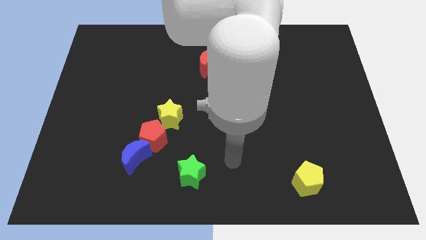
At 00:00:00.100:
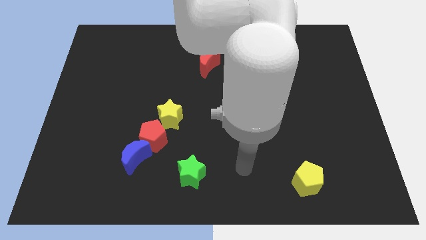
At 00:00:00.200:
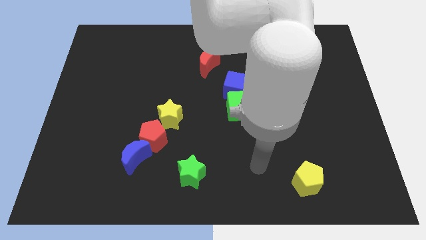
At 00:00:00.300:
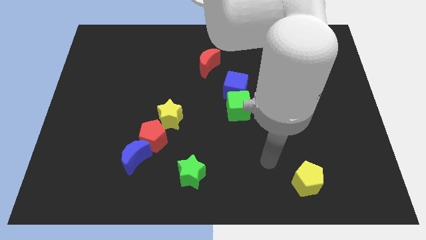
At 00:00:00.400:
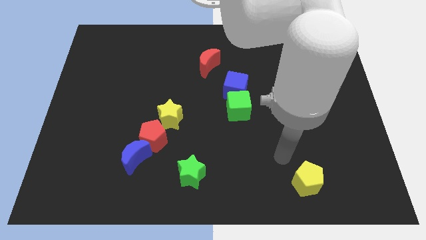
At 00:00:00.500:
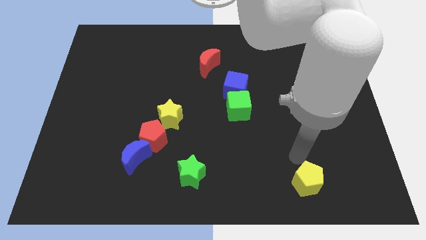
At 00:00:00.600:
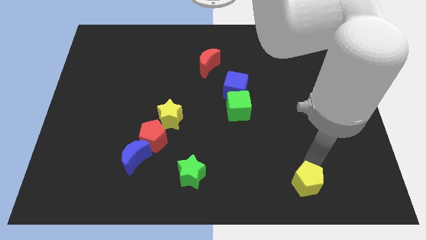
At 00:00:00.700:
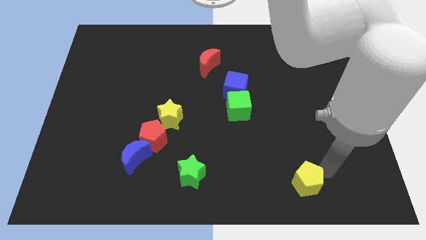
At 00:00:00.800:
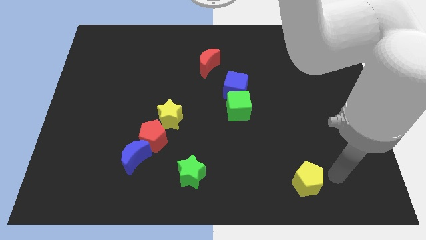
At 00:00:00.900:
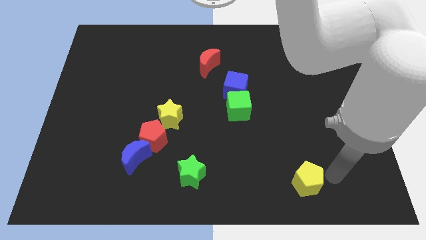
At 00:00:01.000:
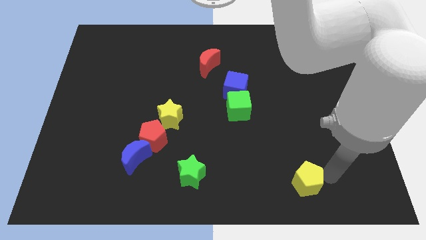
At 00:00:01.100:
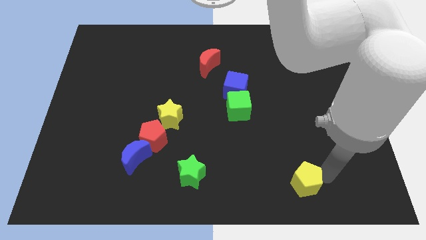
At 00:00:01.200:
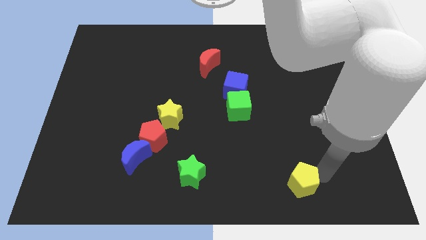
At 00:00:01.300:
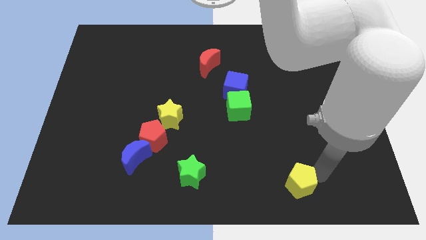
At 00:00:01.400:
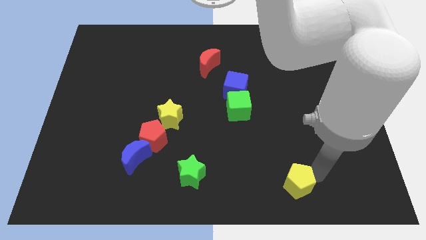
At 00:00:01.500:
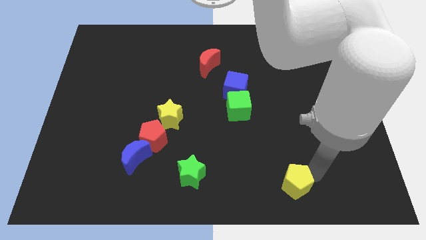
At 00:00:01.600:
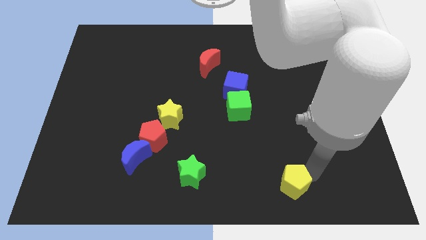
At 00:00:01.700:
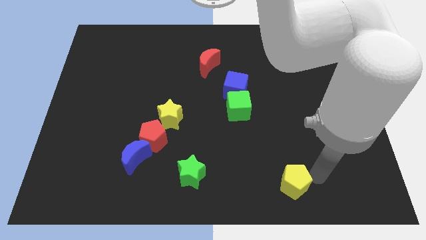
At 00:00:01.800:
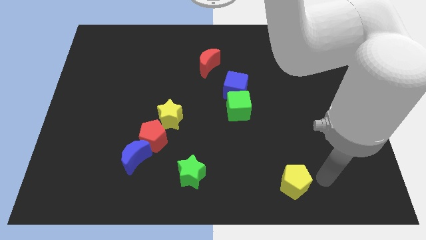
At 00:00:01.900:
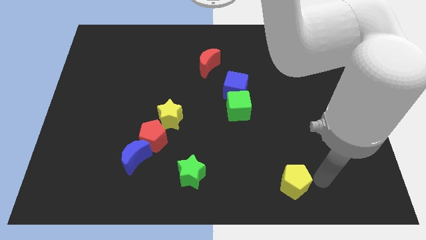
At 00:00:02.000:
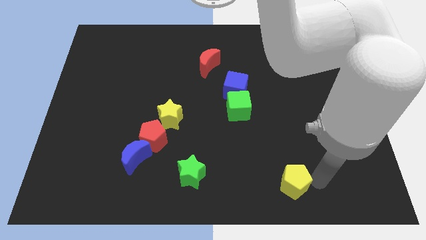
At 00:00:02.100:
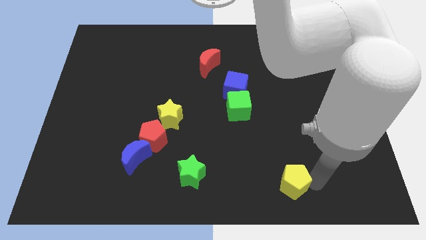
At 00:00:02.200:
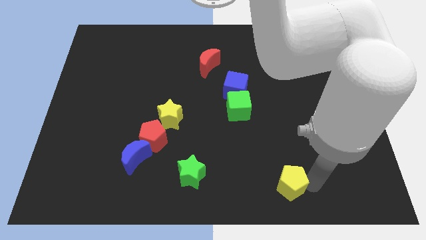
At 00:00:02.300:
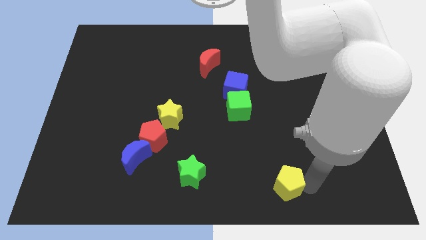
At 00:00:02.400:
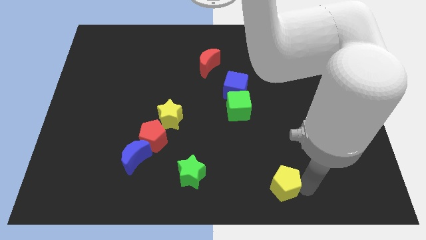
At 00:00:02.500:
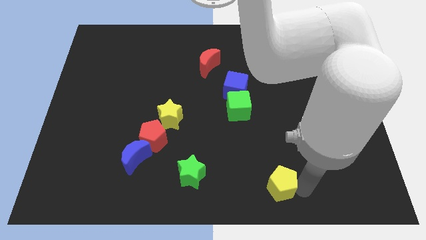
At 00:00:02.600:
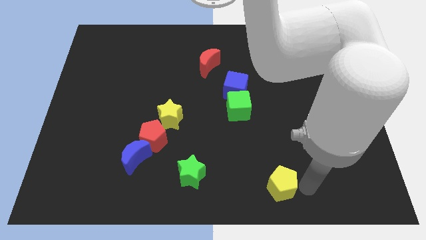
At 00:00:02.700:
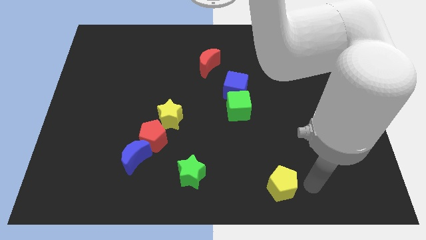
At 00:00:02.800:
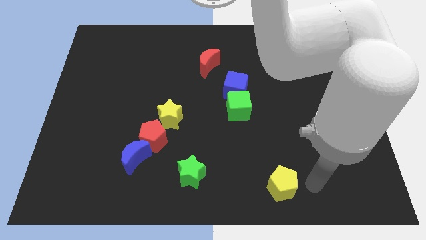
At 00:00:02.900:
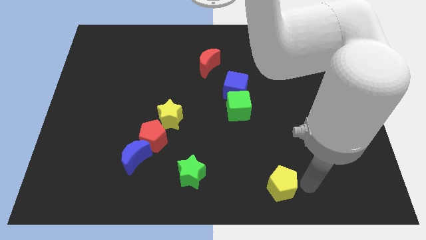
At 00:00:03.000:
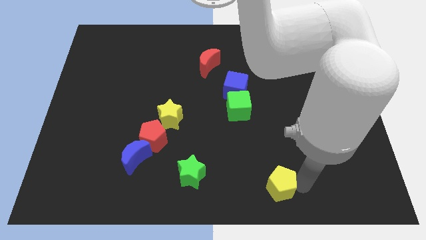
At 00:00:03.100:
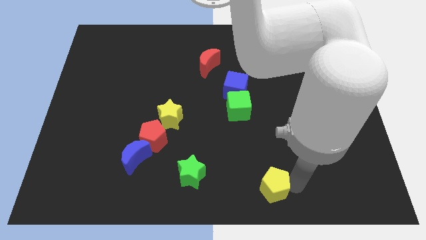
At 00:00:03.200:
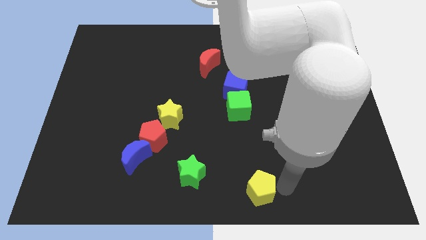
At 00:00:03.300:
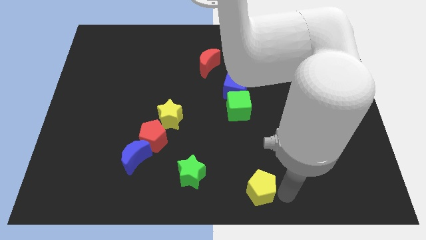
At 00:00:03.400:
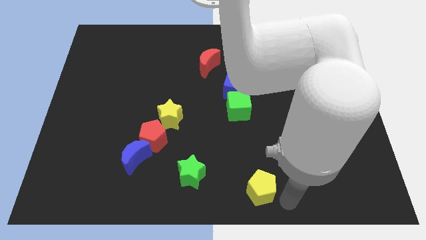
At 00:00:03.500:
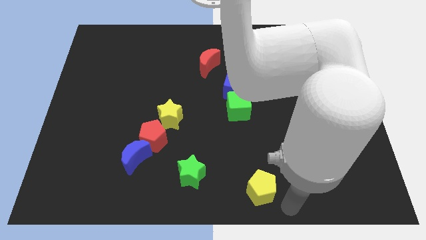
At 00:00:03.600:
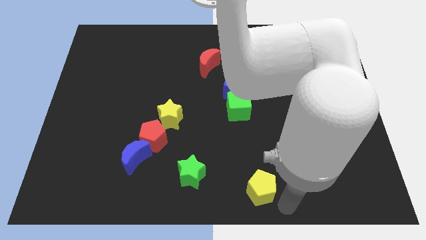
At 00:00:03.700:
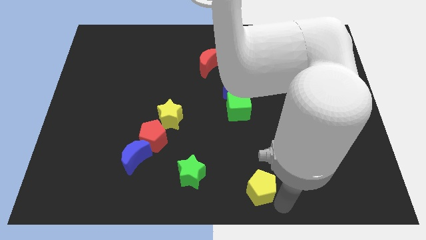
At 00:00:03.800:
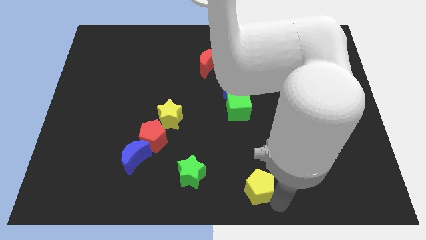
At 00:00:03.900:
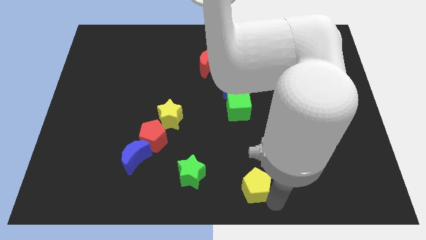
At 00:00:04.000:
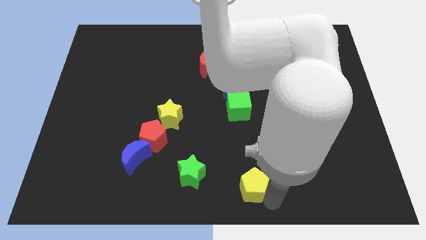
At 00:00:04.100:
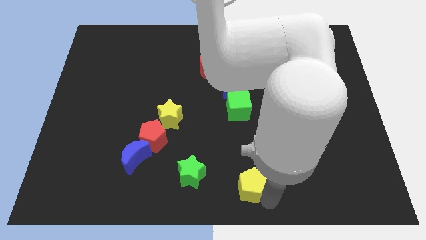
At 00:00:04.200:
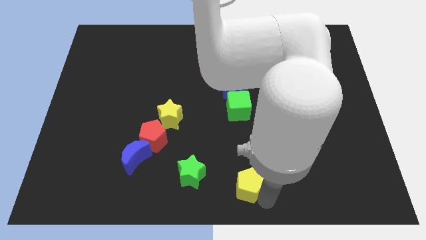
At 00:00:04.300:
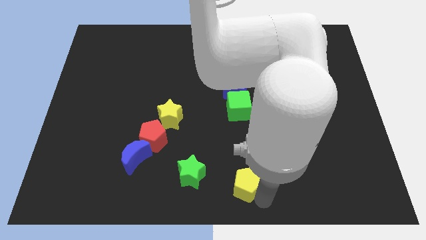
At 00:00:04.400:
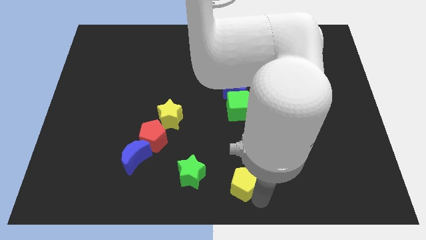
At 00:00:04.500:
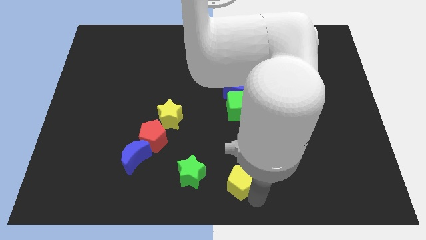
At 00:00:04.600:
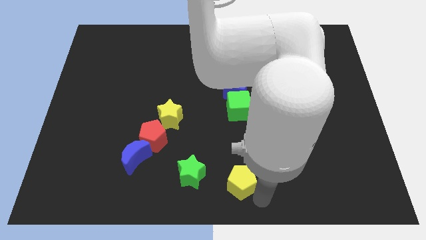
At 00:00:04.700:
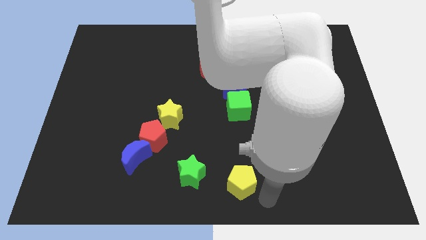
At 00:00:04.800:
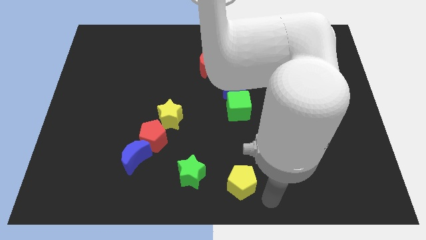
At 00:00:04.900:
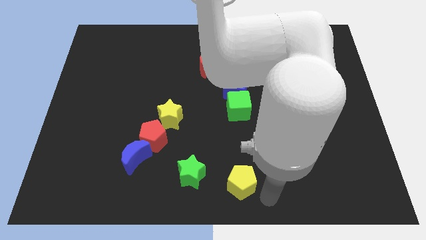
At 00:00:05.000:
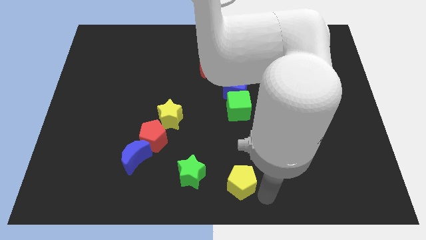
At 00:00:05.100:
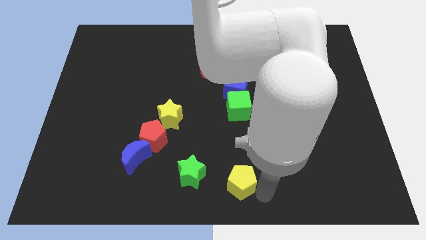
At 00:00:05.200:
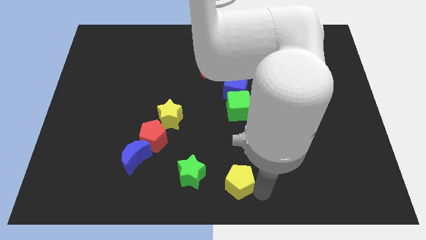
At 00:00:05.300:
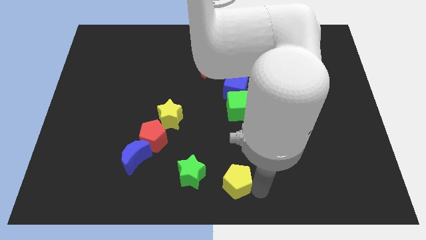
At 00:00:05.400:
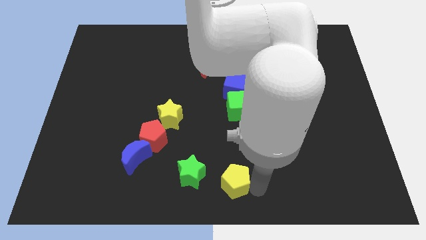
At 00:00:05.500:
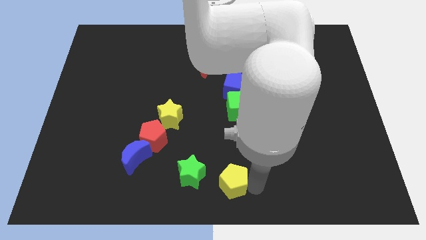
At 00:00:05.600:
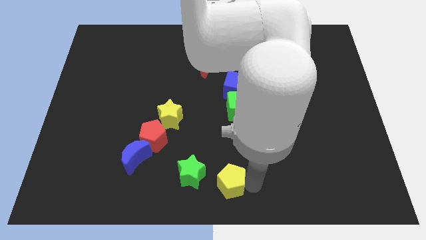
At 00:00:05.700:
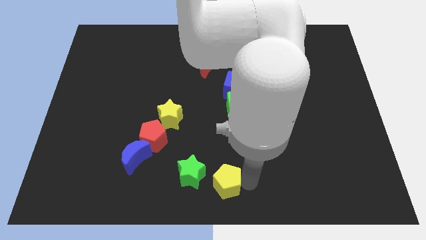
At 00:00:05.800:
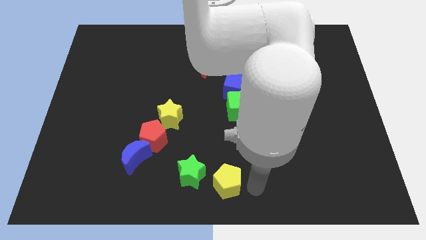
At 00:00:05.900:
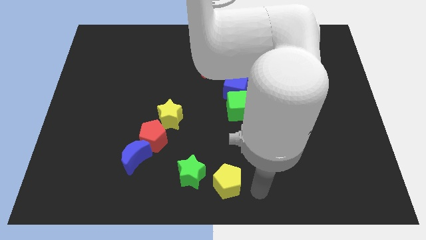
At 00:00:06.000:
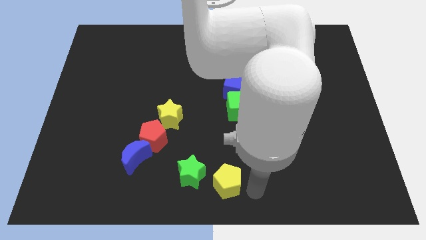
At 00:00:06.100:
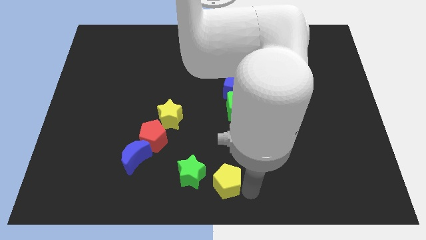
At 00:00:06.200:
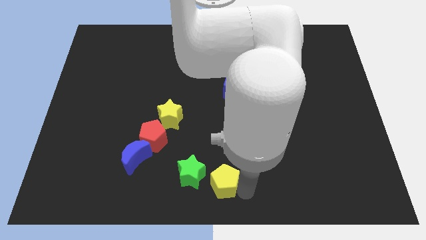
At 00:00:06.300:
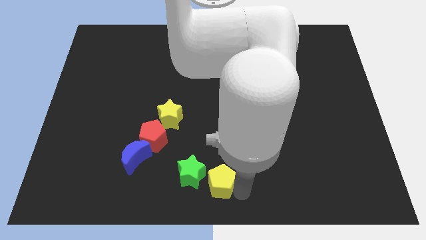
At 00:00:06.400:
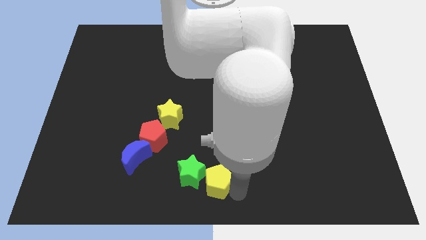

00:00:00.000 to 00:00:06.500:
move the yellow pentagon to the green star
